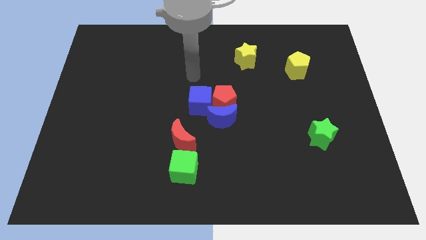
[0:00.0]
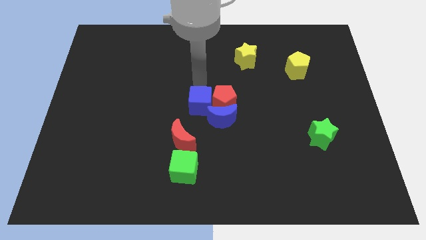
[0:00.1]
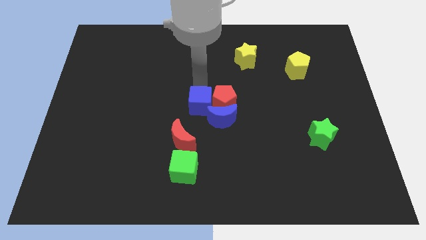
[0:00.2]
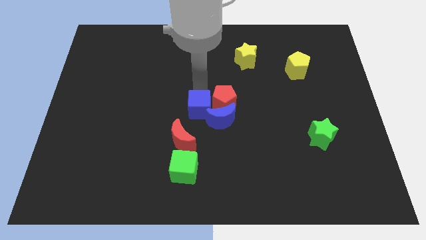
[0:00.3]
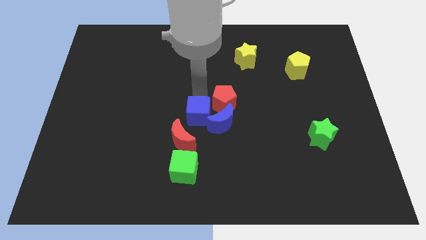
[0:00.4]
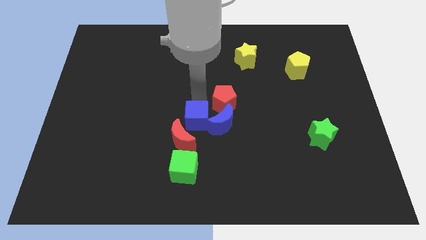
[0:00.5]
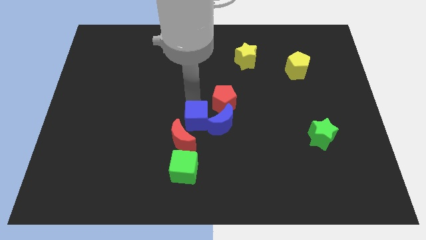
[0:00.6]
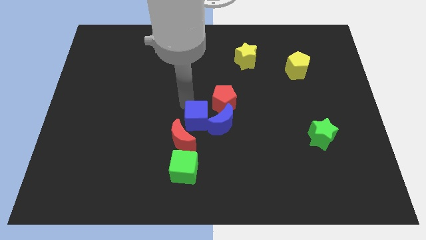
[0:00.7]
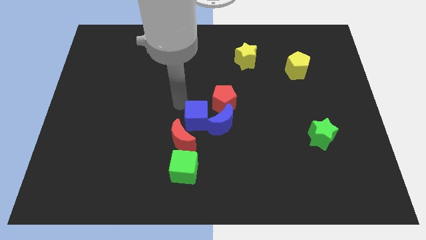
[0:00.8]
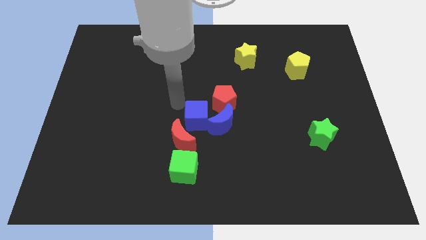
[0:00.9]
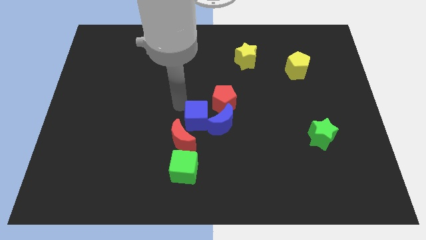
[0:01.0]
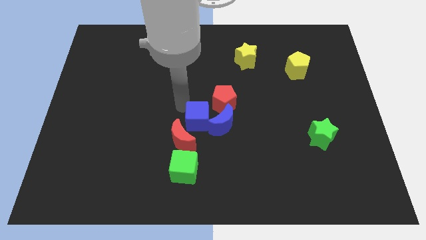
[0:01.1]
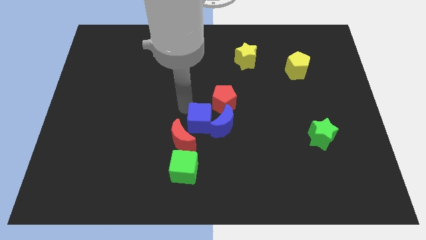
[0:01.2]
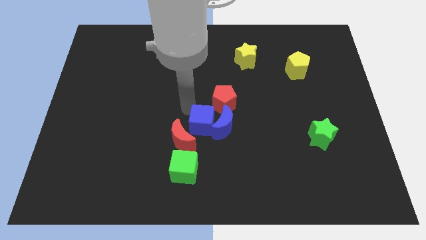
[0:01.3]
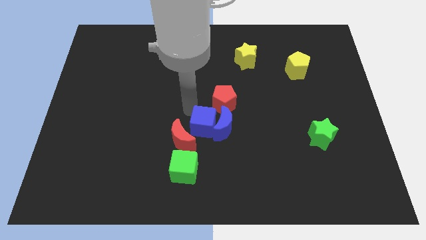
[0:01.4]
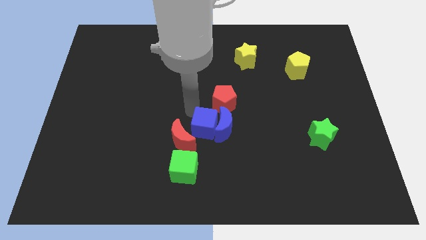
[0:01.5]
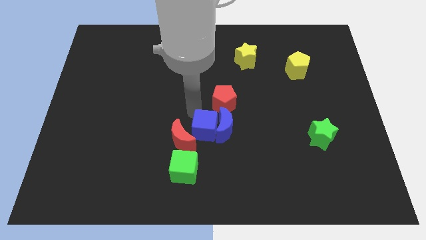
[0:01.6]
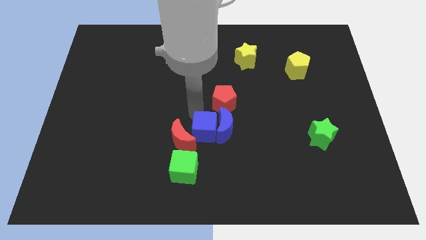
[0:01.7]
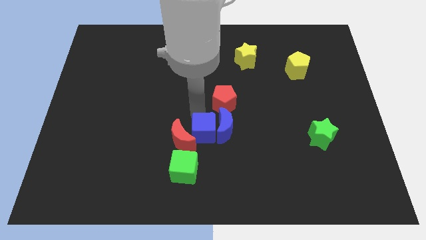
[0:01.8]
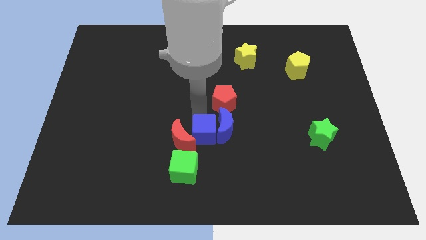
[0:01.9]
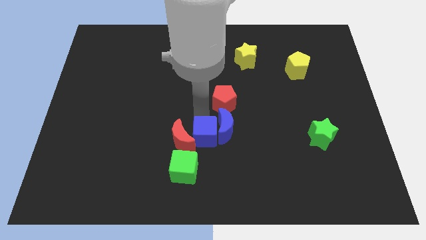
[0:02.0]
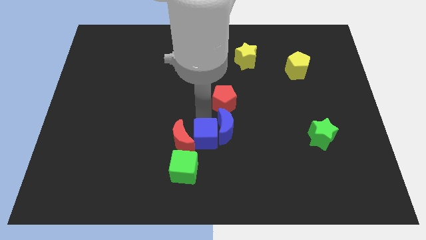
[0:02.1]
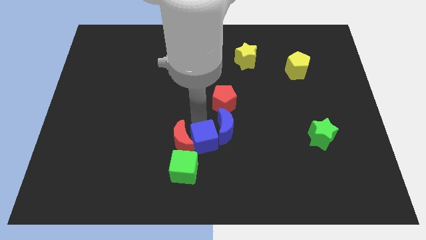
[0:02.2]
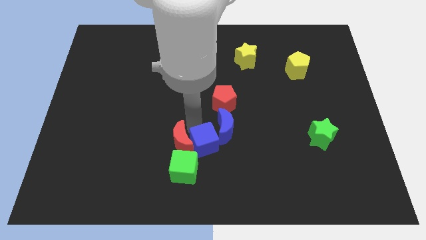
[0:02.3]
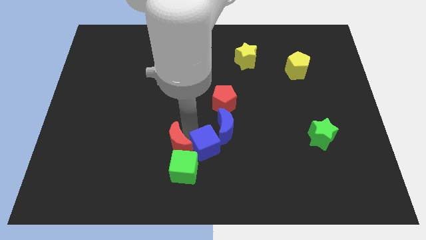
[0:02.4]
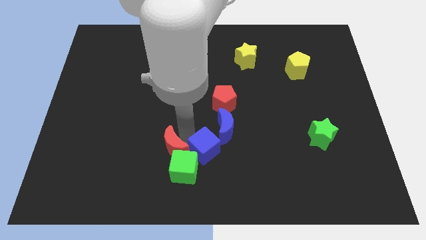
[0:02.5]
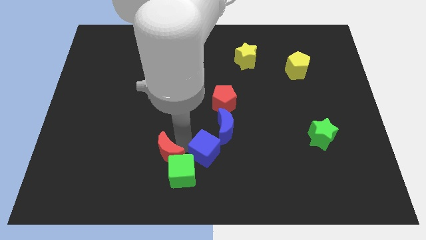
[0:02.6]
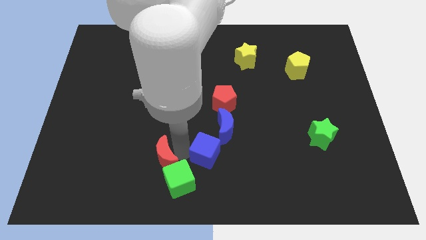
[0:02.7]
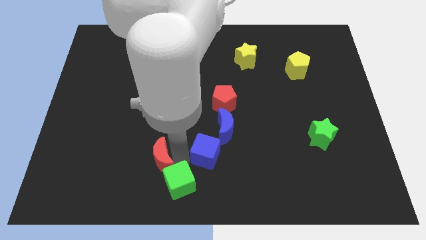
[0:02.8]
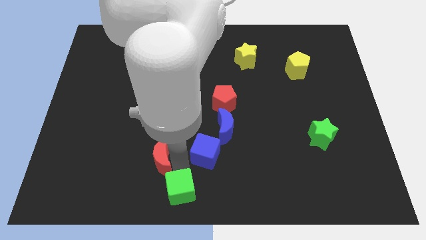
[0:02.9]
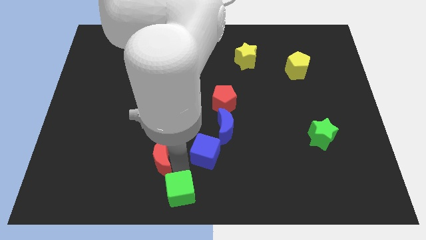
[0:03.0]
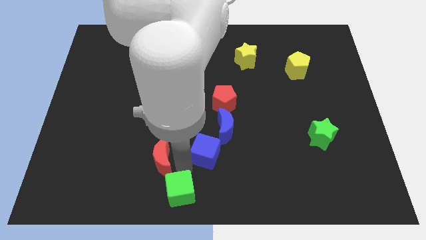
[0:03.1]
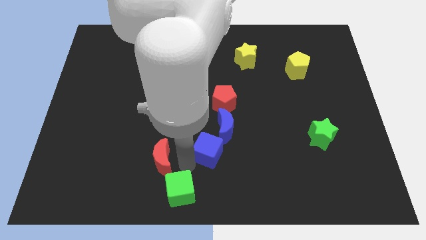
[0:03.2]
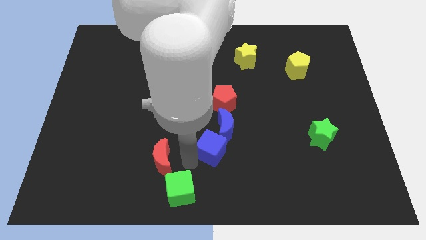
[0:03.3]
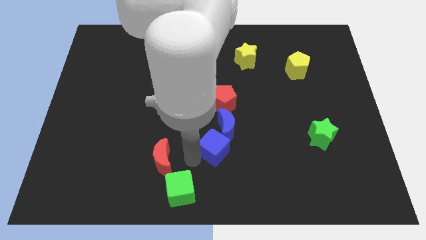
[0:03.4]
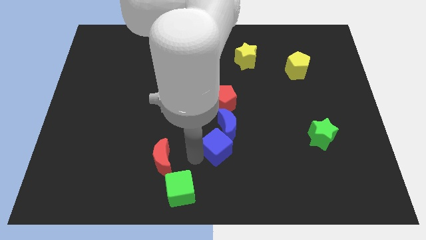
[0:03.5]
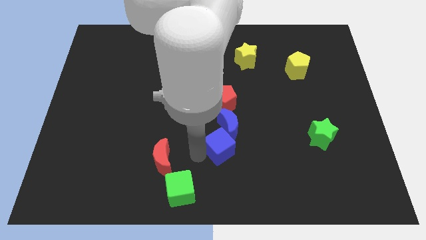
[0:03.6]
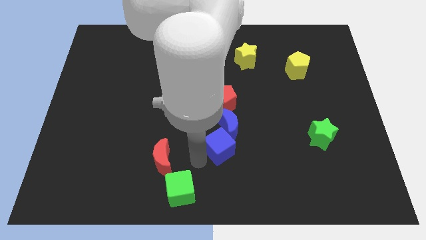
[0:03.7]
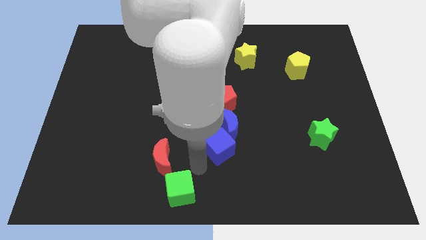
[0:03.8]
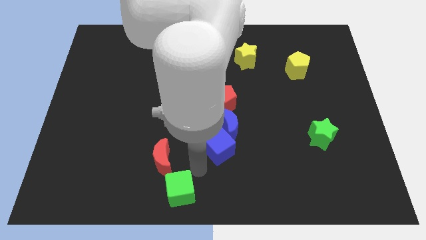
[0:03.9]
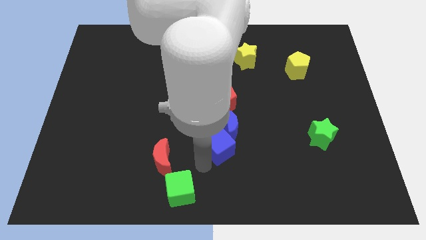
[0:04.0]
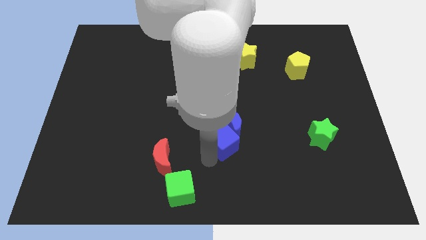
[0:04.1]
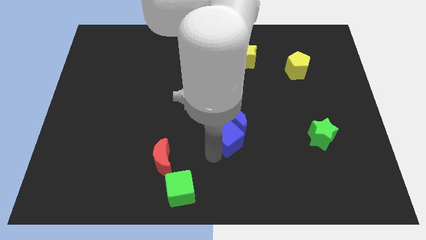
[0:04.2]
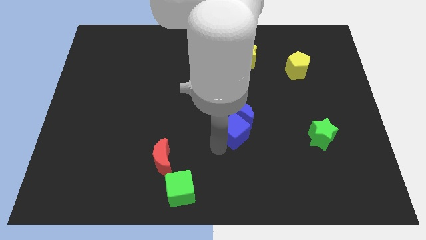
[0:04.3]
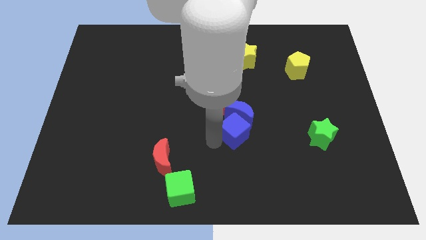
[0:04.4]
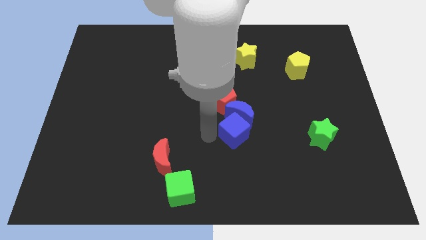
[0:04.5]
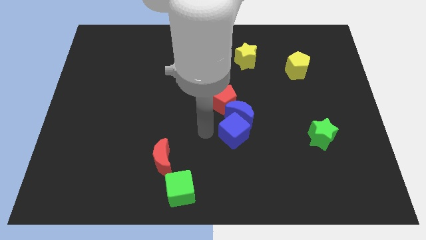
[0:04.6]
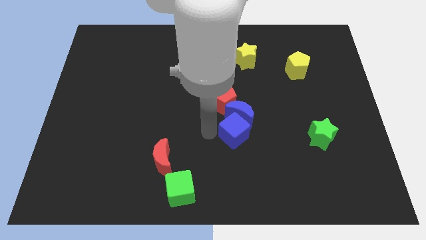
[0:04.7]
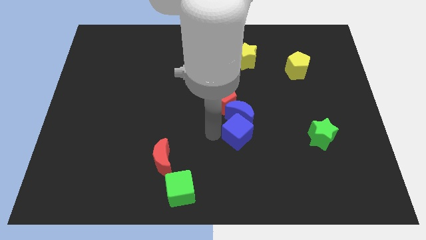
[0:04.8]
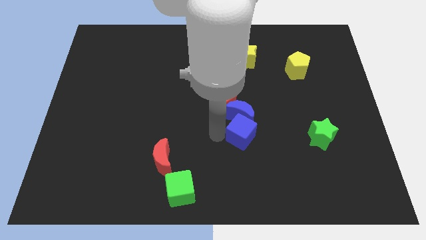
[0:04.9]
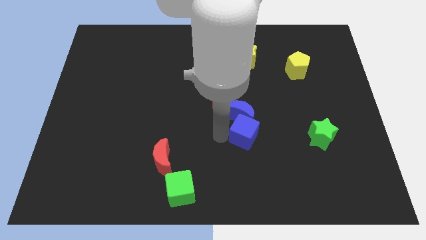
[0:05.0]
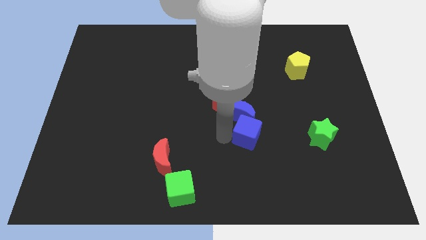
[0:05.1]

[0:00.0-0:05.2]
push the blue cube to the left side of the green star

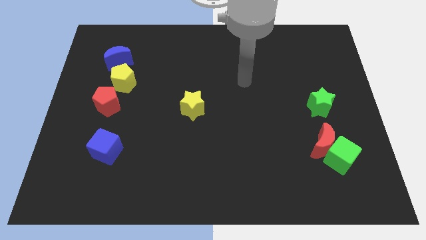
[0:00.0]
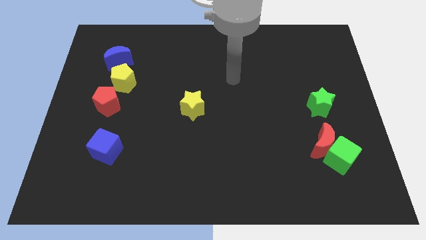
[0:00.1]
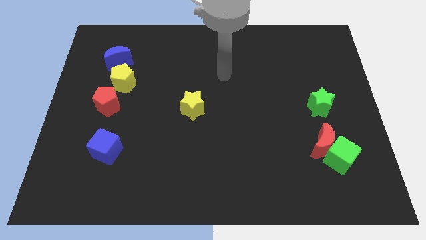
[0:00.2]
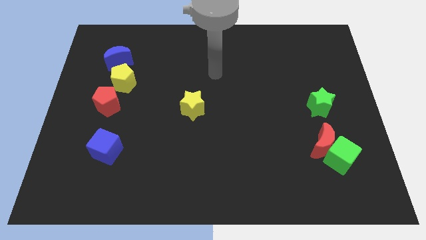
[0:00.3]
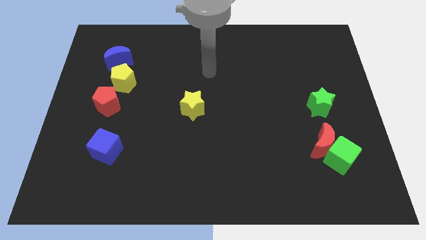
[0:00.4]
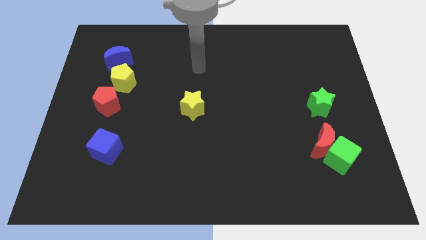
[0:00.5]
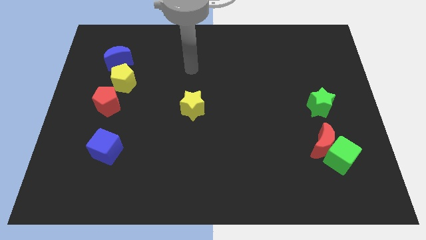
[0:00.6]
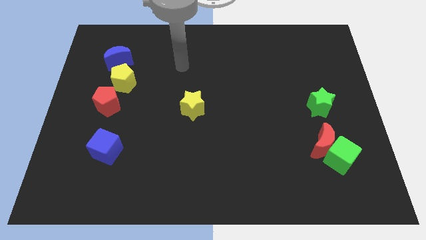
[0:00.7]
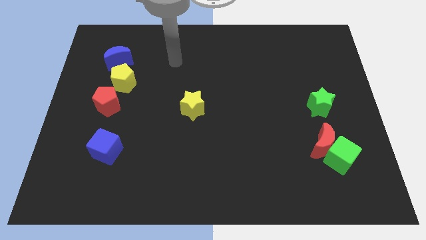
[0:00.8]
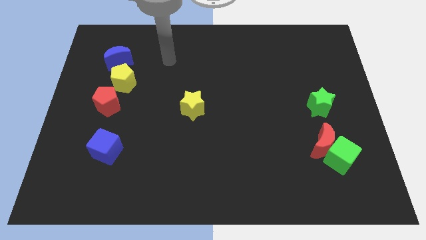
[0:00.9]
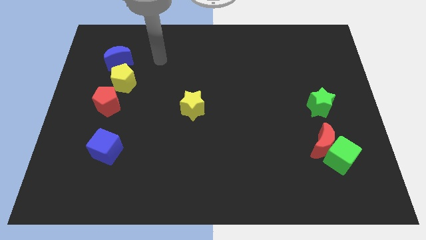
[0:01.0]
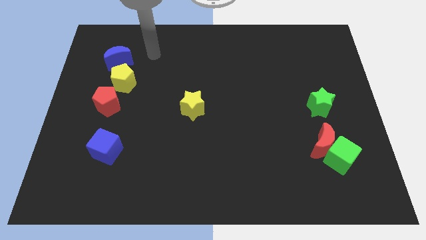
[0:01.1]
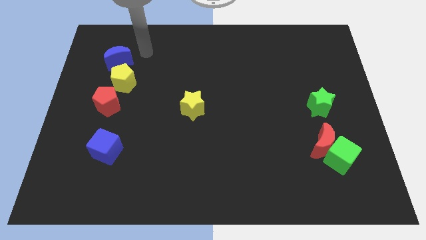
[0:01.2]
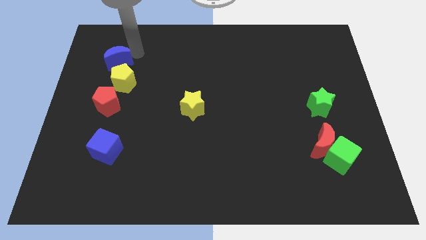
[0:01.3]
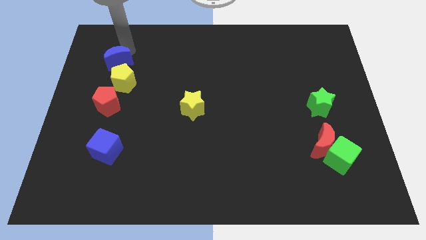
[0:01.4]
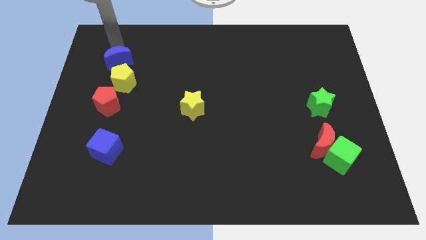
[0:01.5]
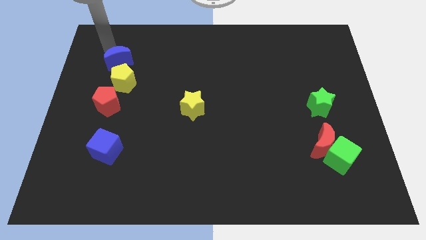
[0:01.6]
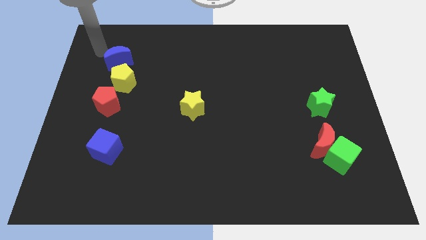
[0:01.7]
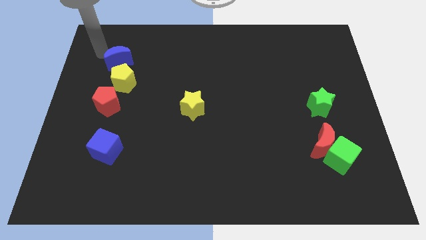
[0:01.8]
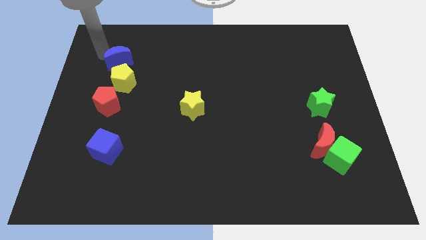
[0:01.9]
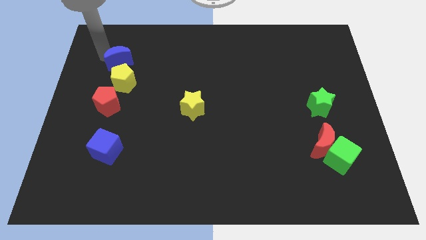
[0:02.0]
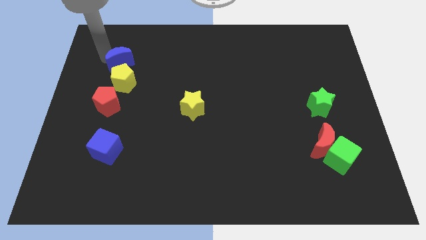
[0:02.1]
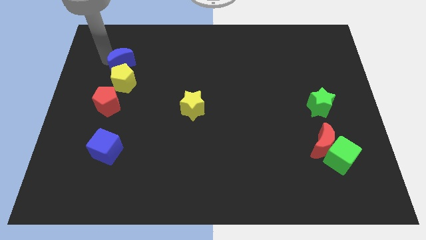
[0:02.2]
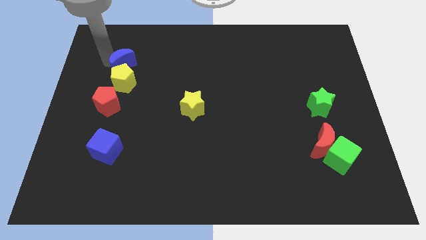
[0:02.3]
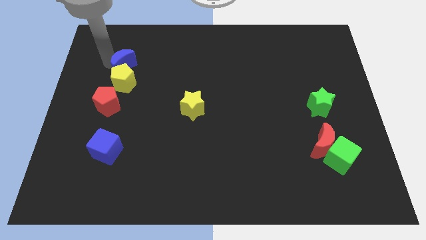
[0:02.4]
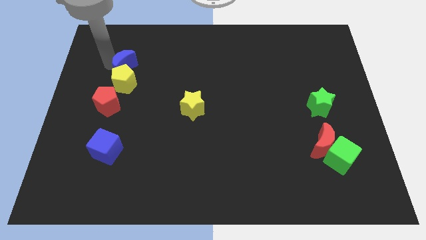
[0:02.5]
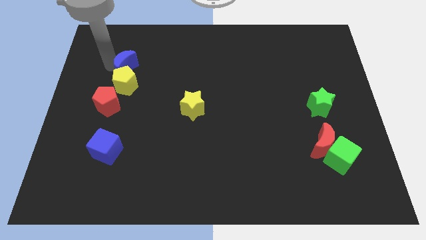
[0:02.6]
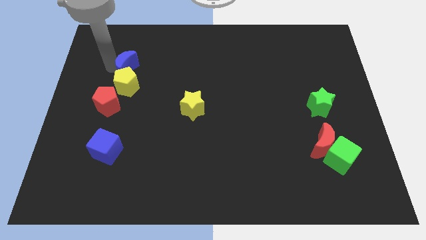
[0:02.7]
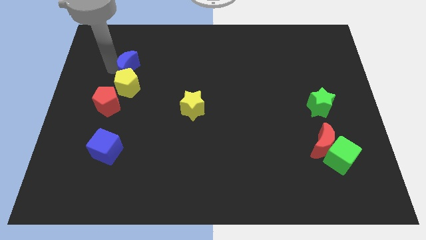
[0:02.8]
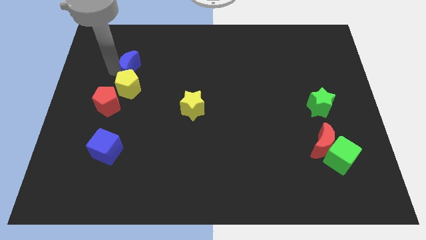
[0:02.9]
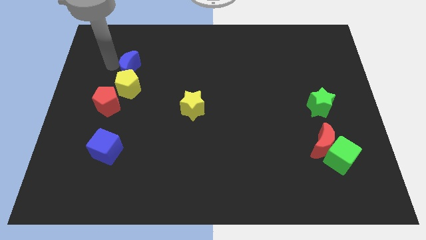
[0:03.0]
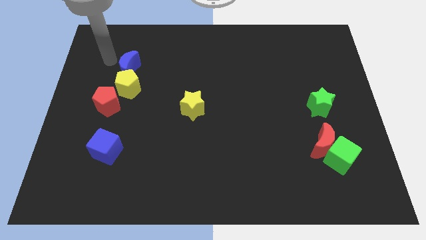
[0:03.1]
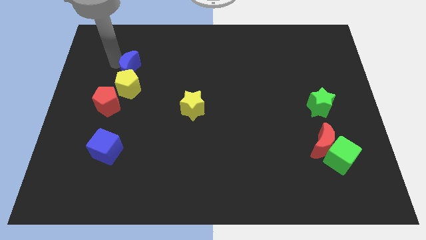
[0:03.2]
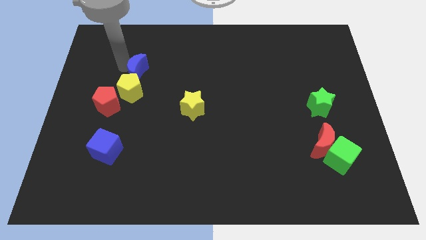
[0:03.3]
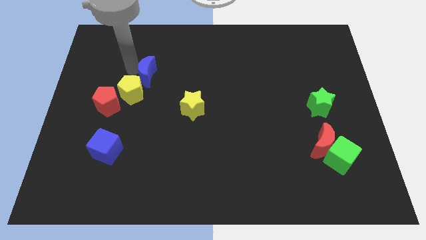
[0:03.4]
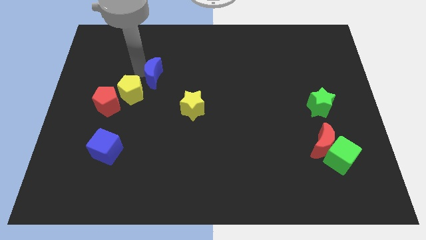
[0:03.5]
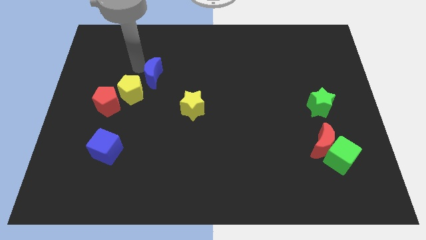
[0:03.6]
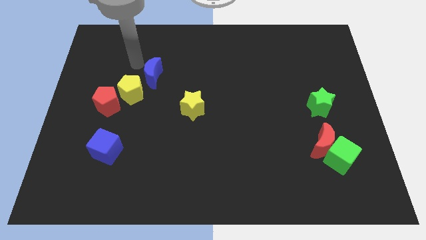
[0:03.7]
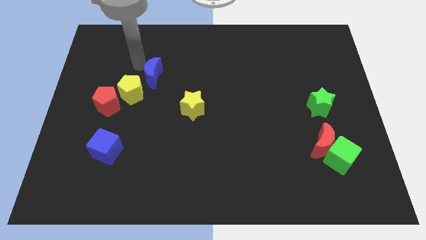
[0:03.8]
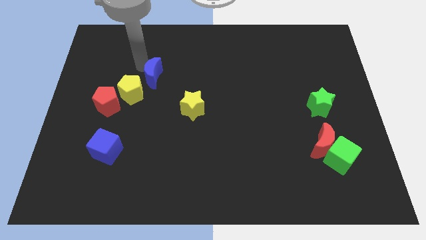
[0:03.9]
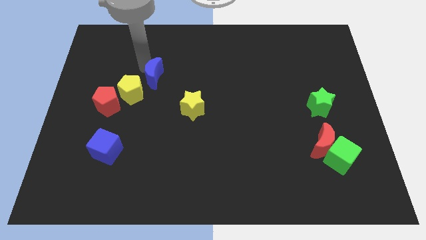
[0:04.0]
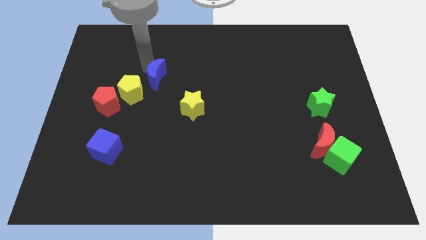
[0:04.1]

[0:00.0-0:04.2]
move the blue moon just right of the yellow pentagon
